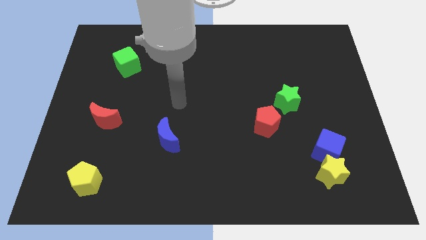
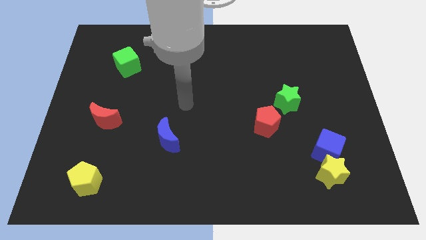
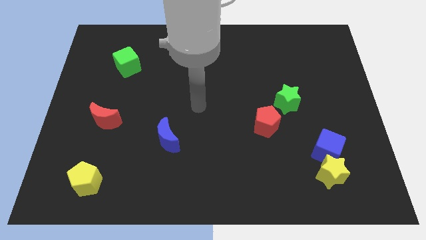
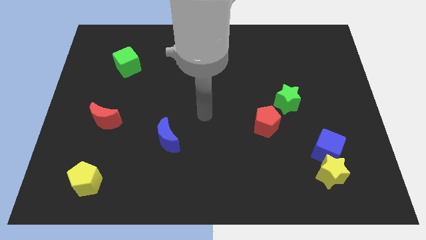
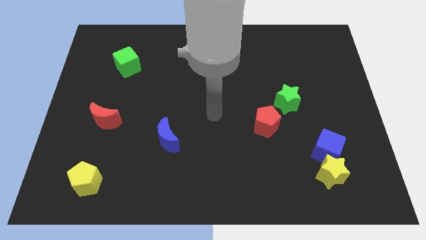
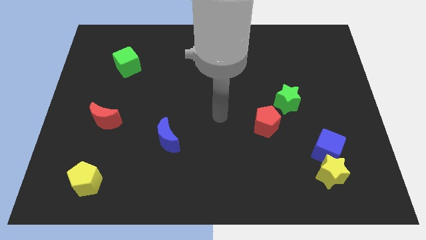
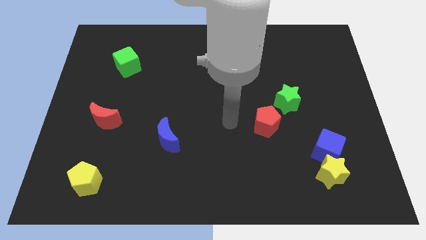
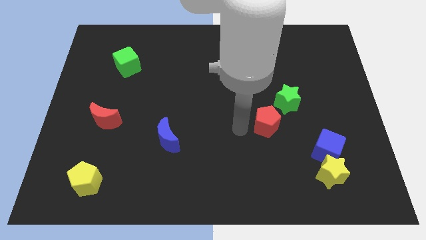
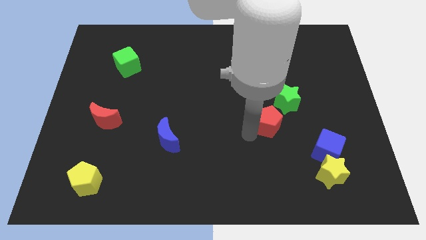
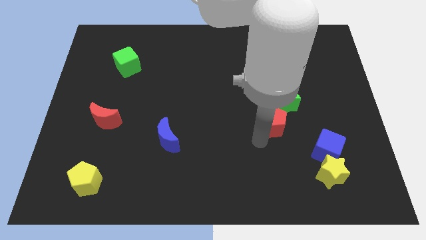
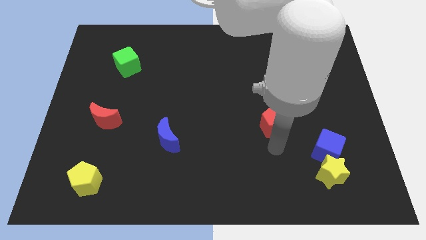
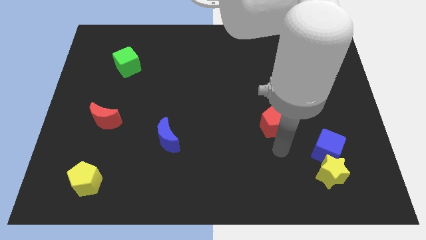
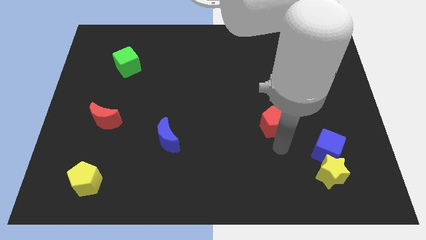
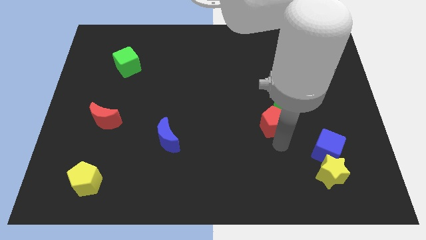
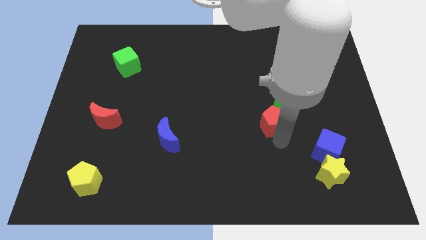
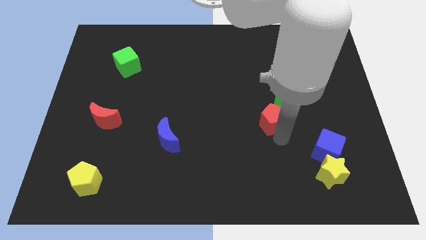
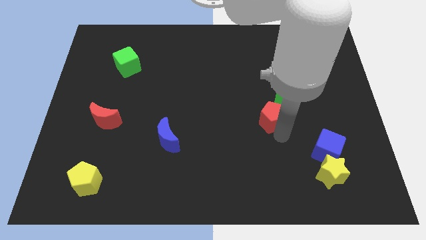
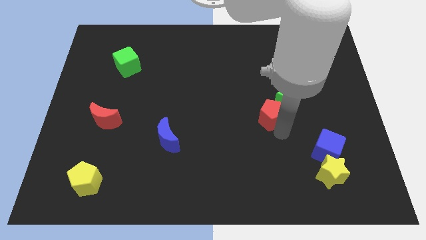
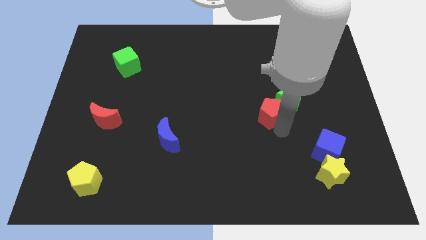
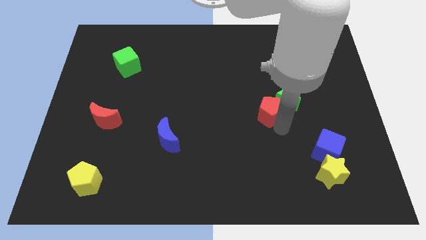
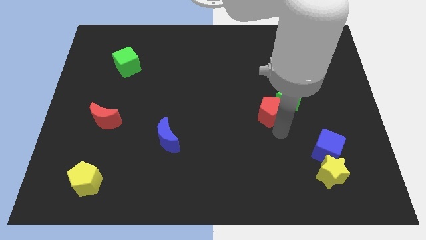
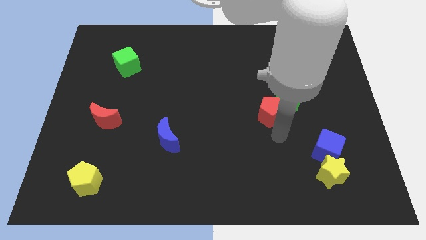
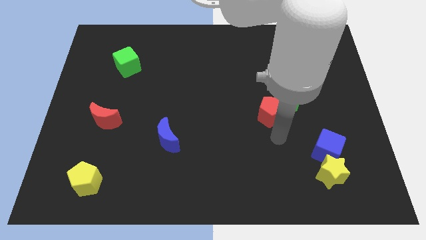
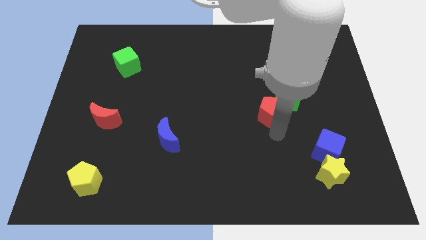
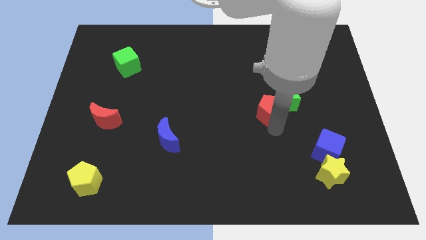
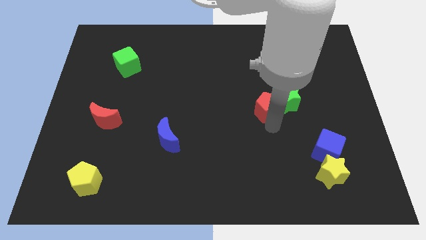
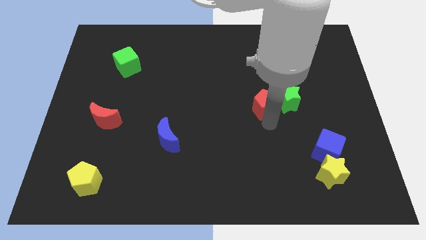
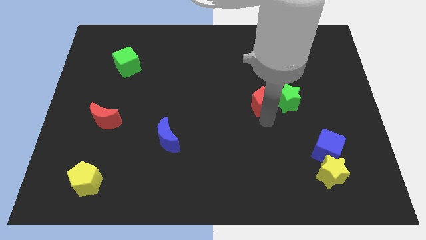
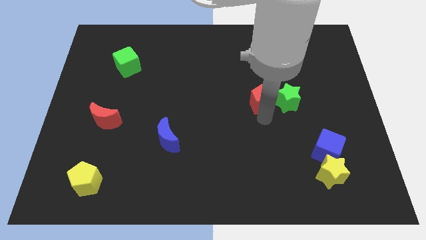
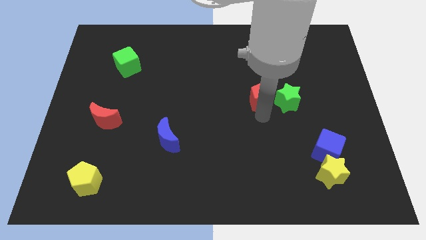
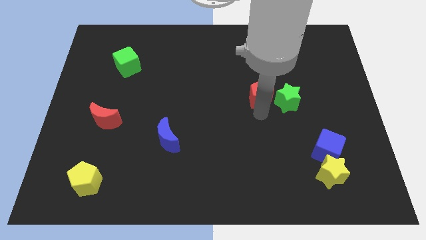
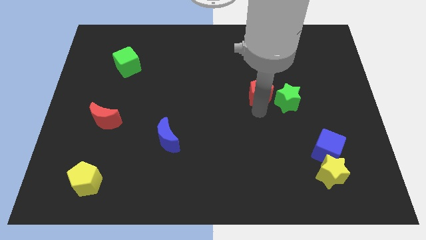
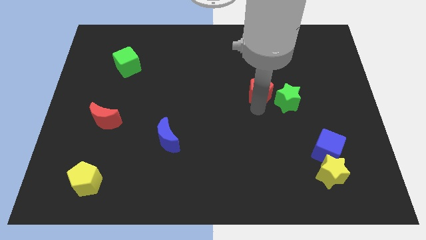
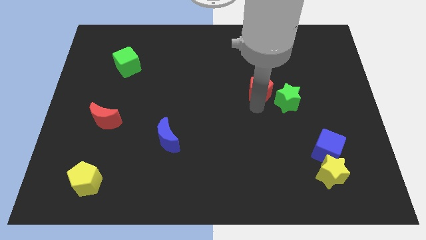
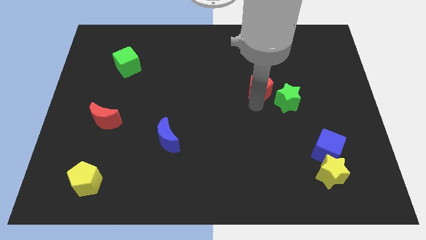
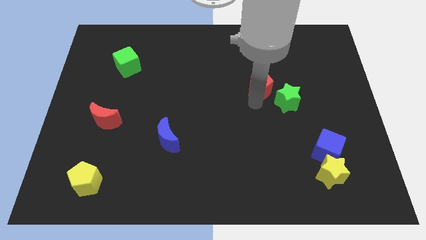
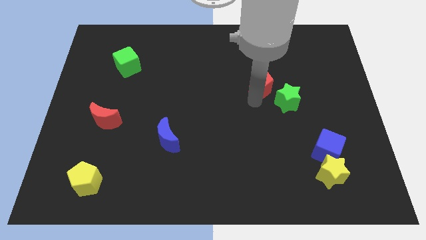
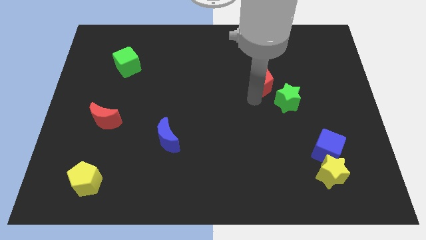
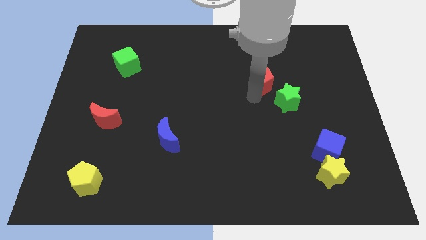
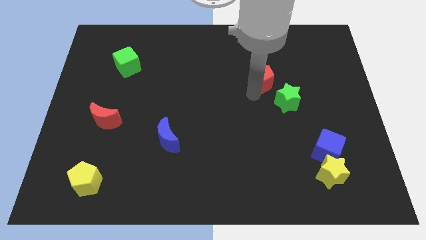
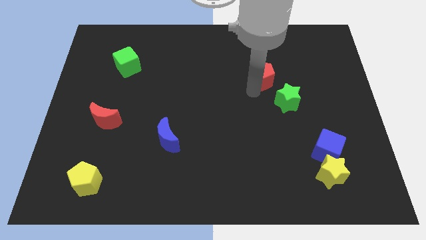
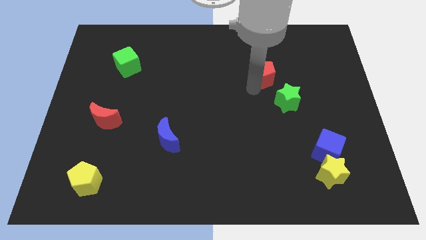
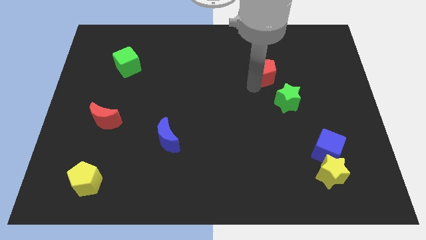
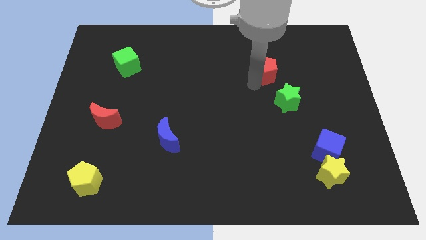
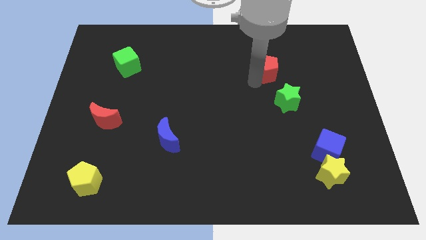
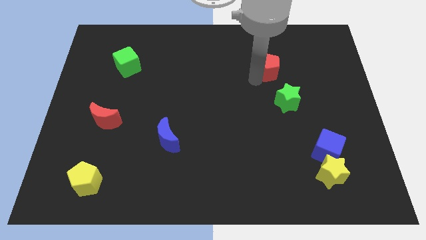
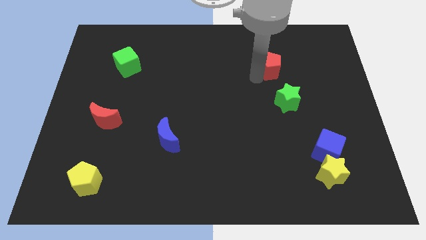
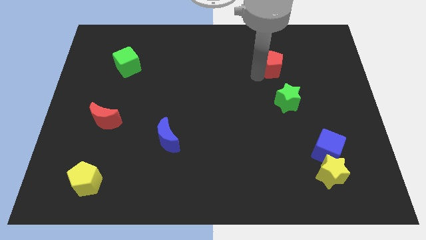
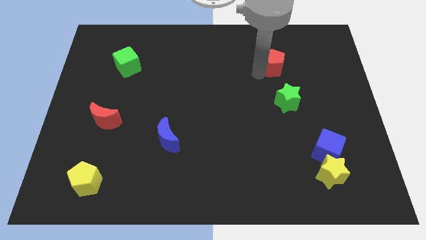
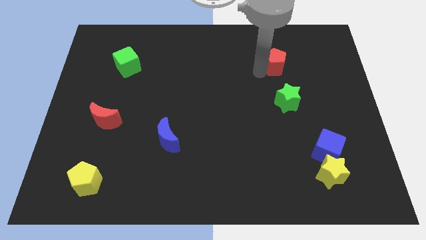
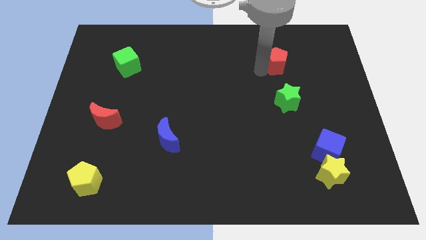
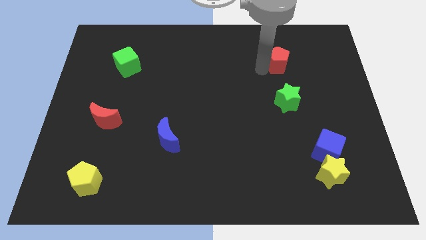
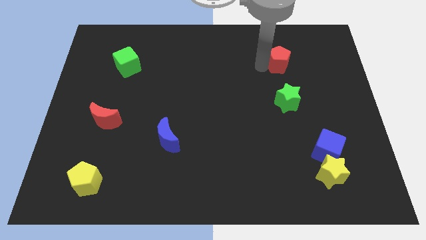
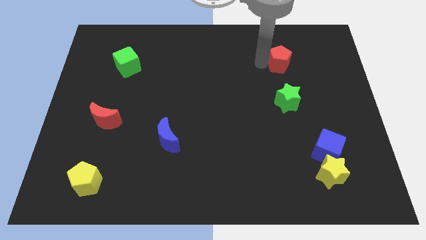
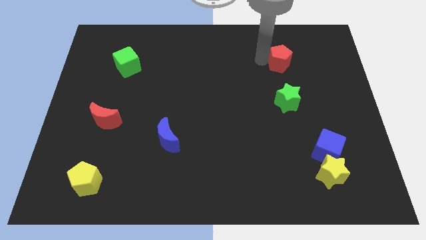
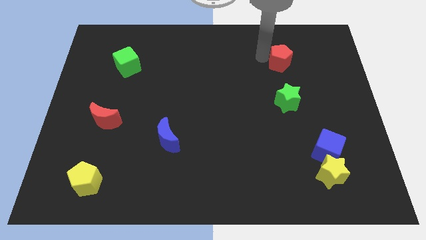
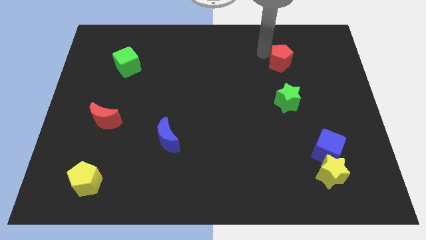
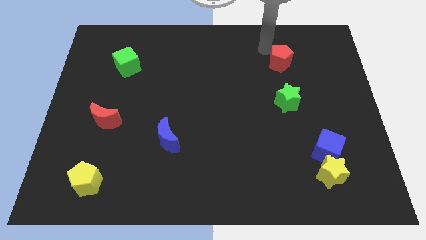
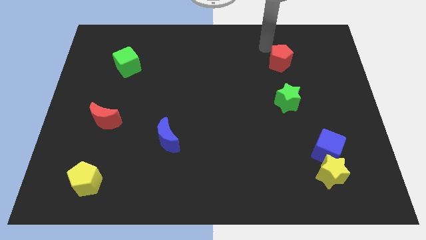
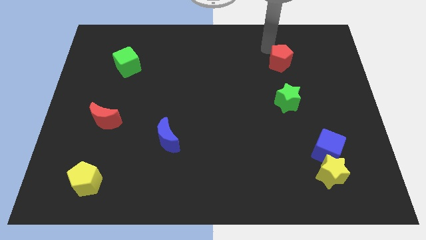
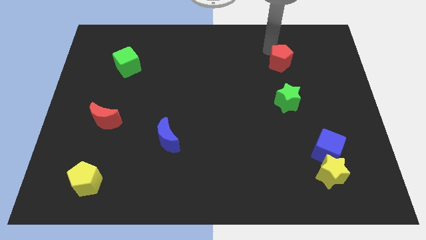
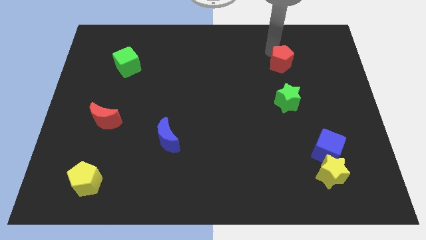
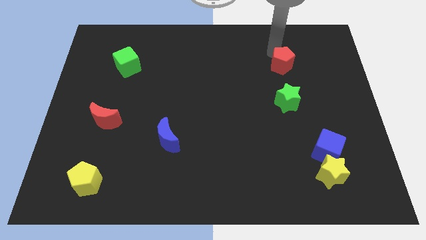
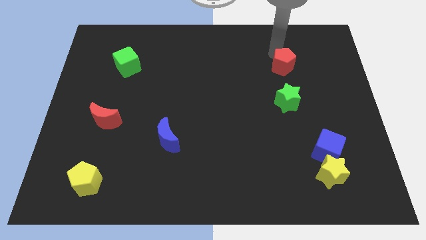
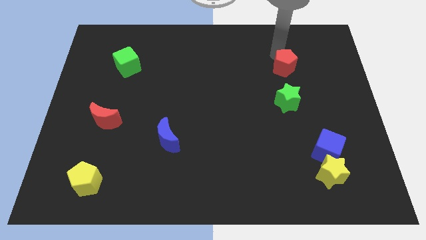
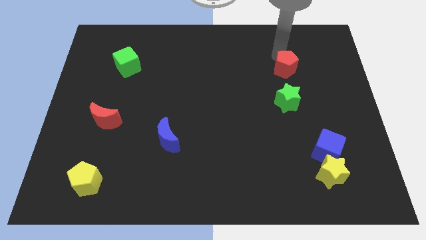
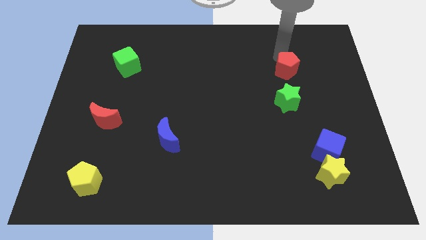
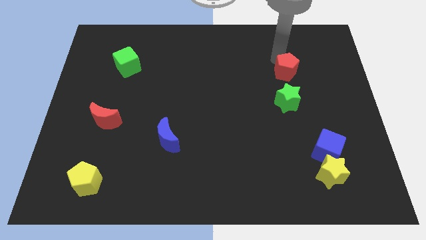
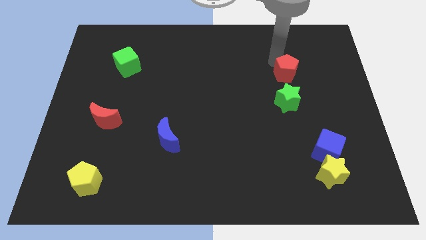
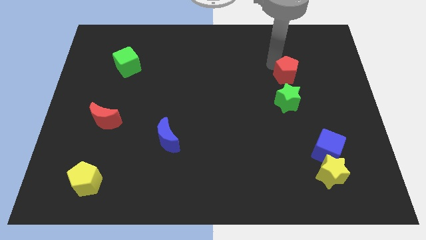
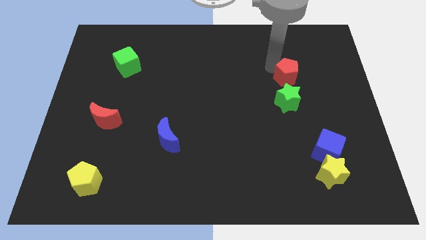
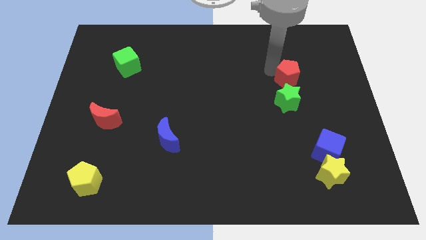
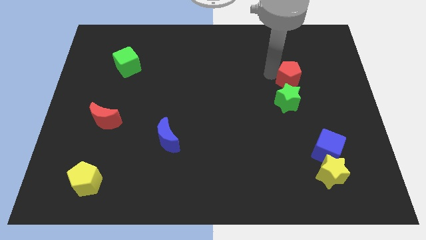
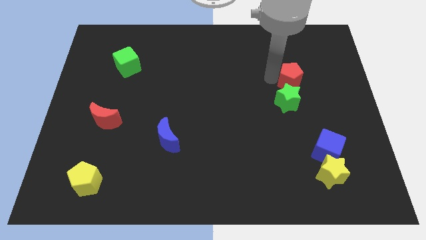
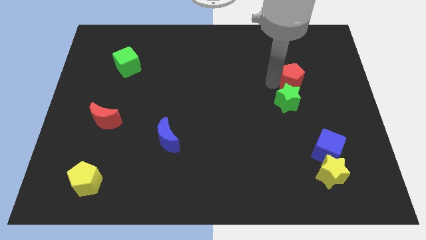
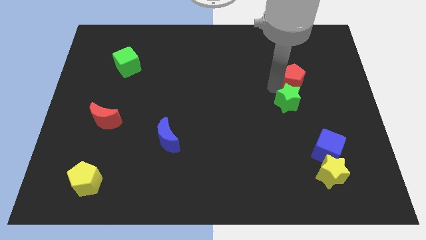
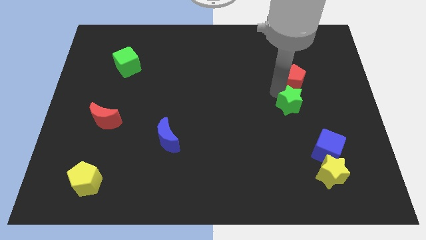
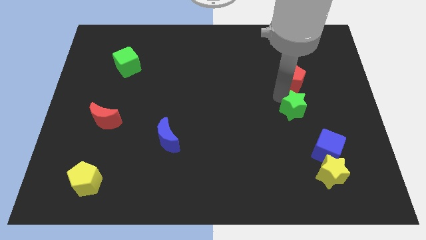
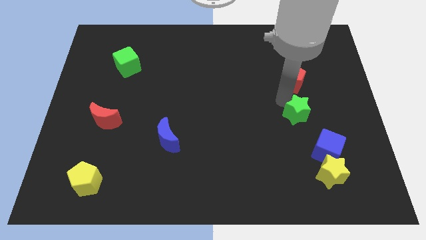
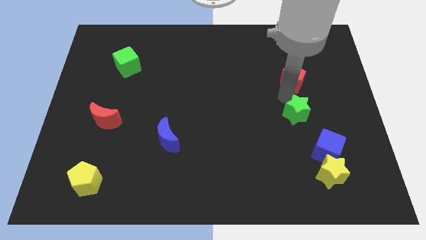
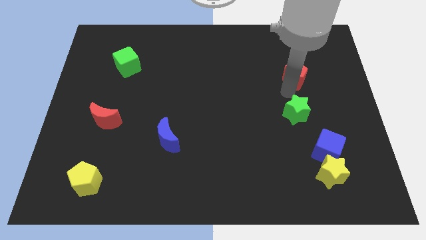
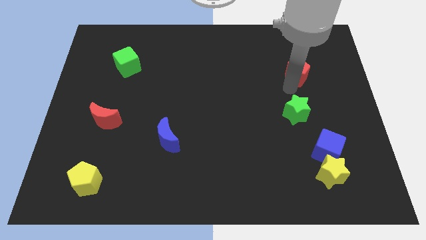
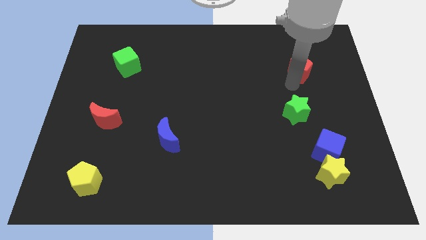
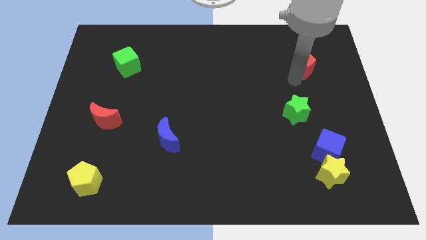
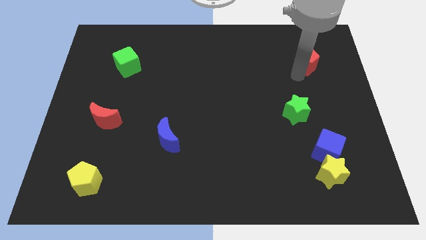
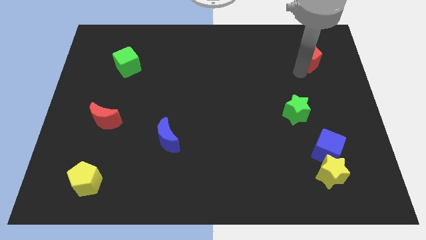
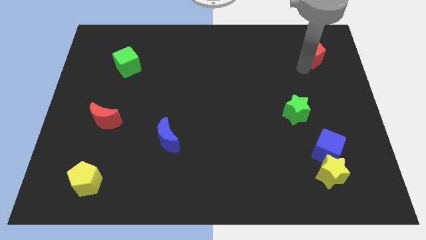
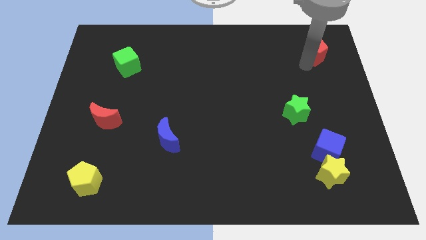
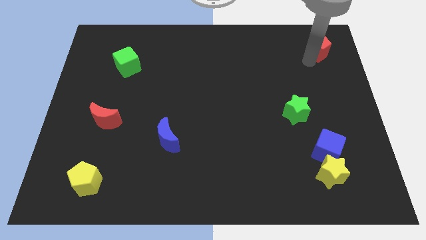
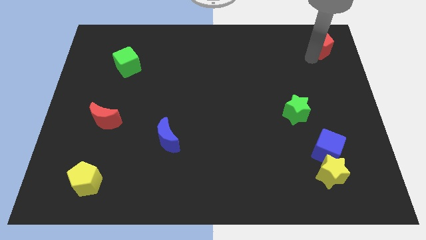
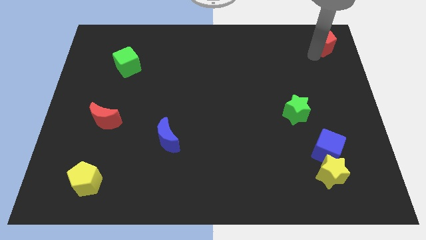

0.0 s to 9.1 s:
slide the red pentagon to the top right
